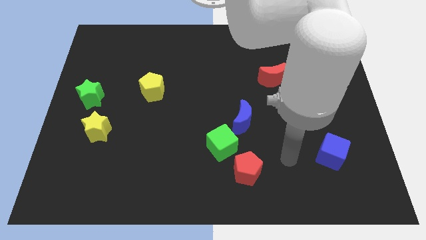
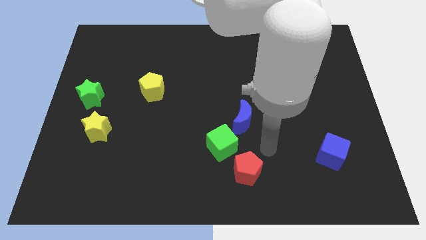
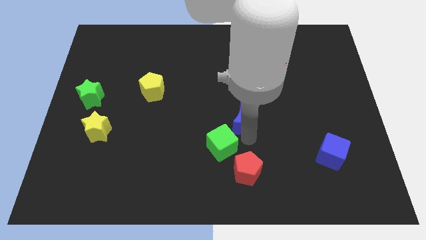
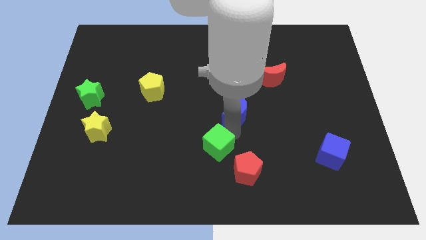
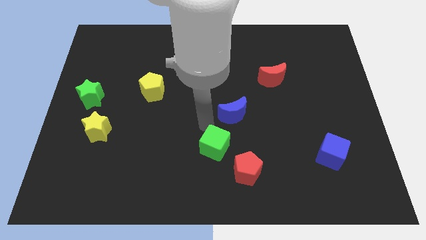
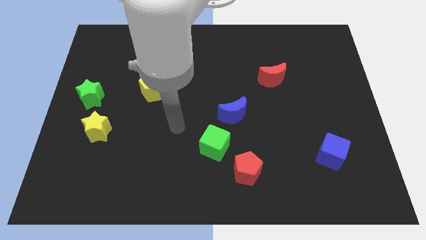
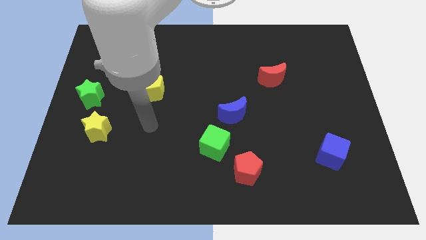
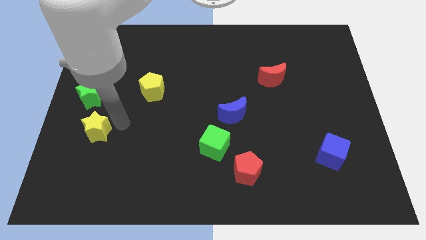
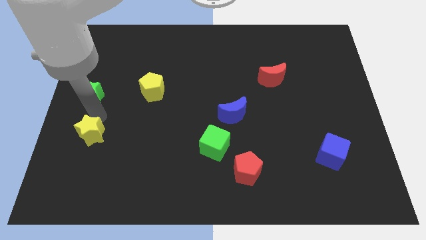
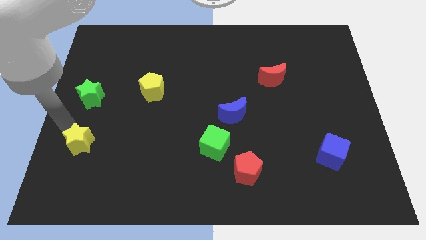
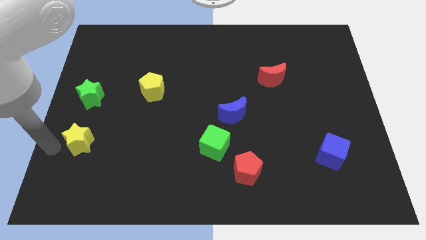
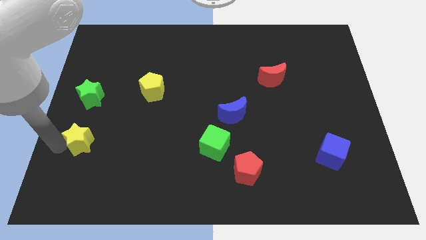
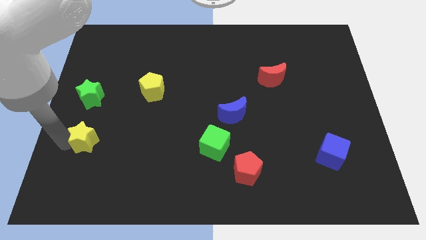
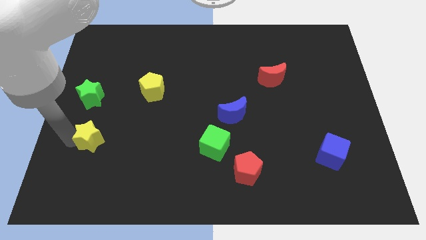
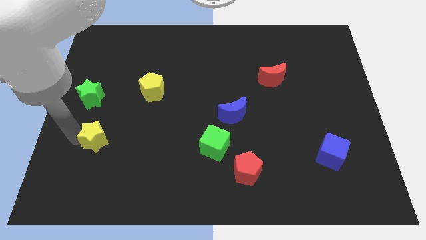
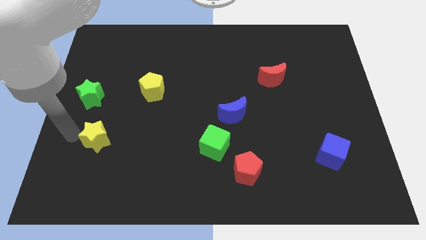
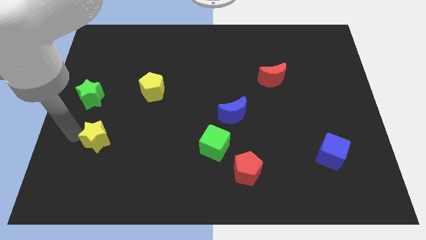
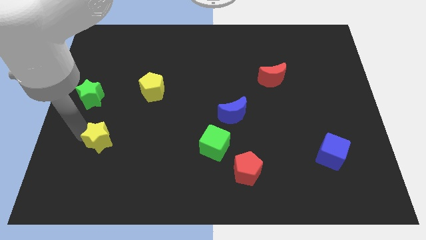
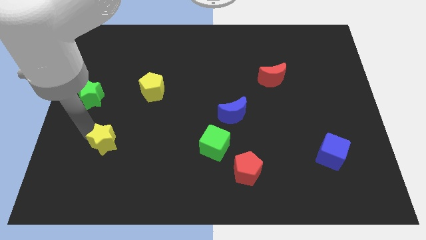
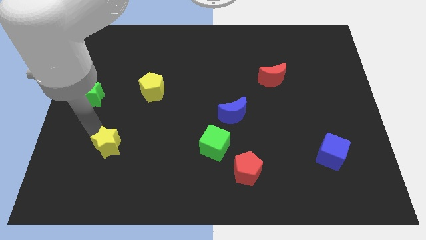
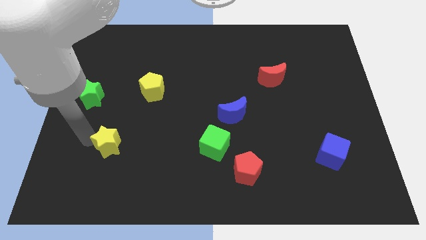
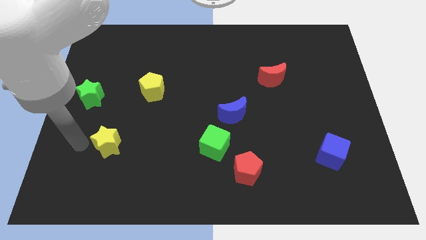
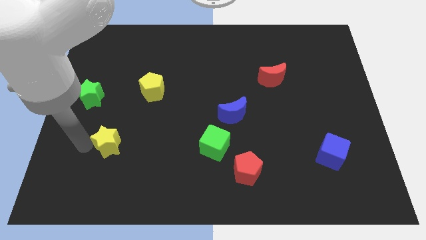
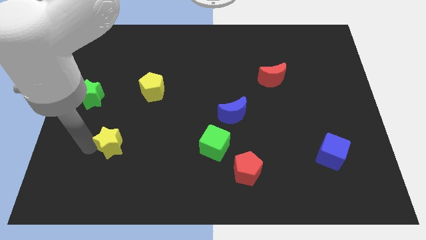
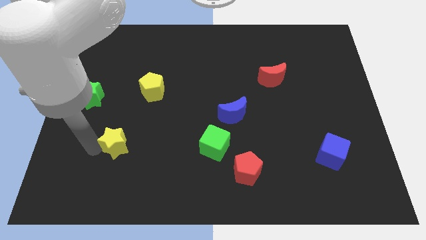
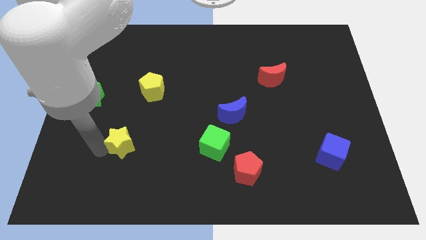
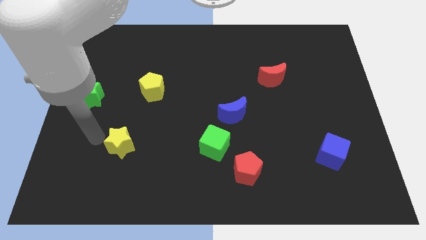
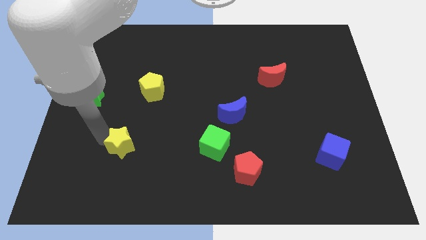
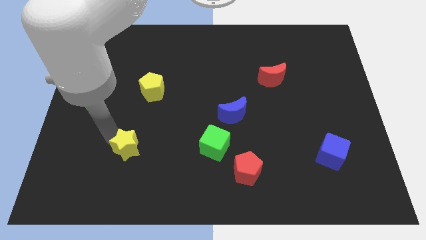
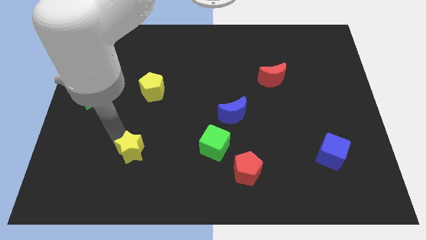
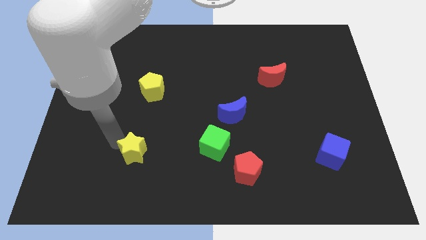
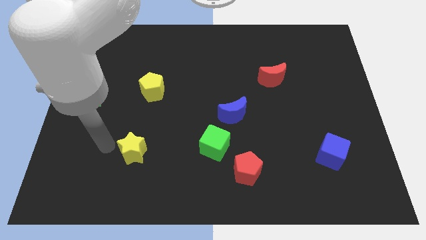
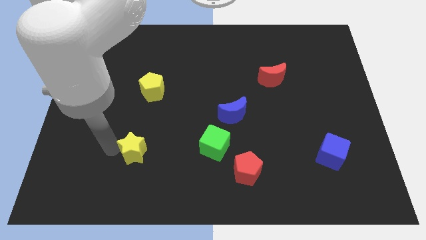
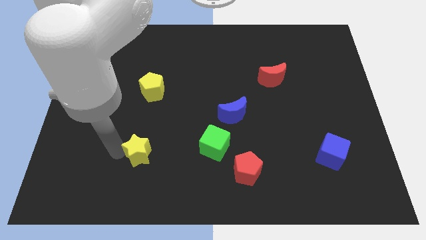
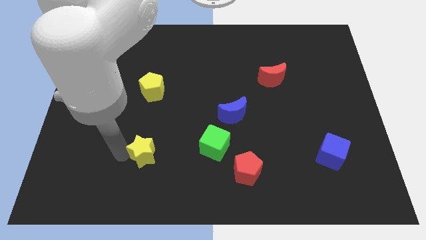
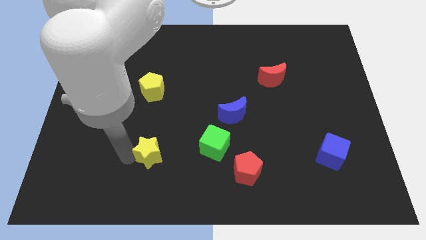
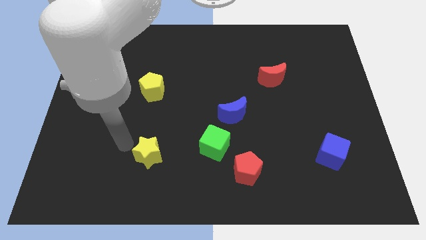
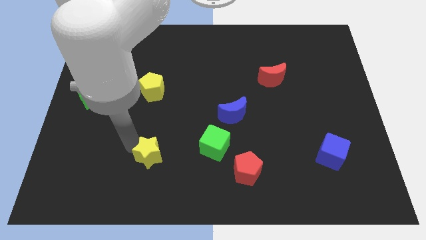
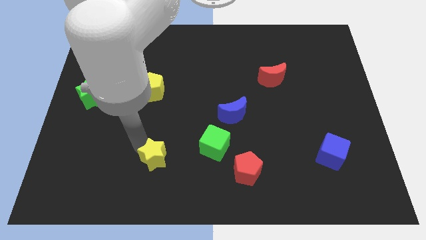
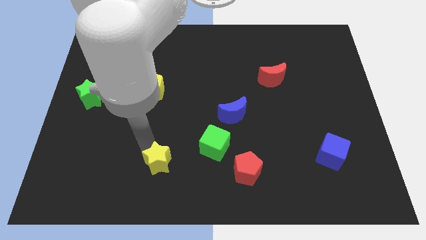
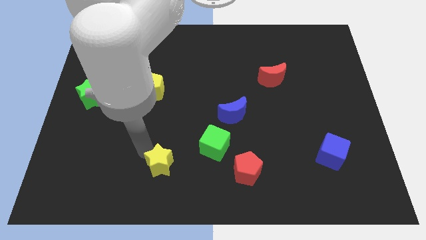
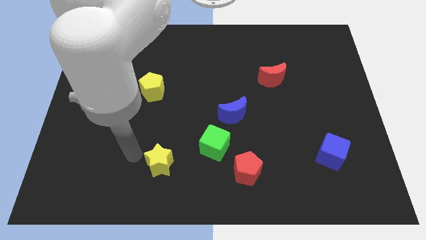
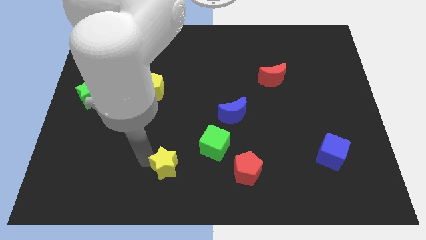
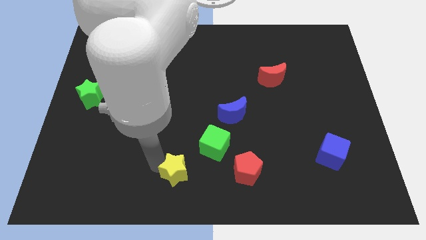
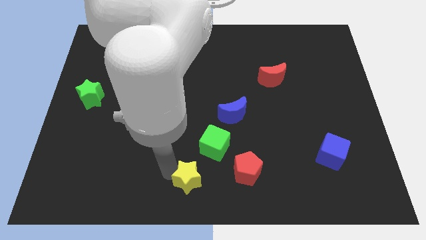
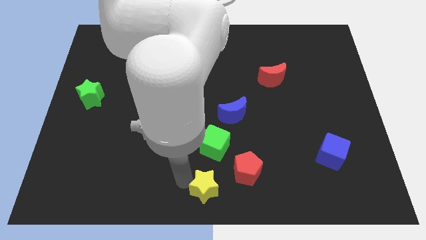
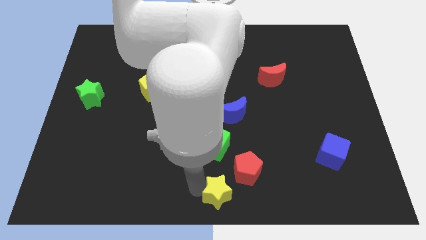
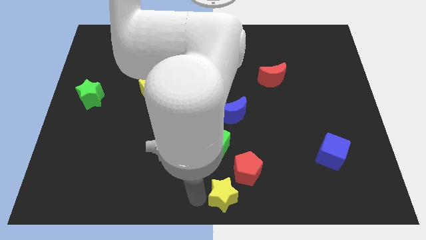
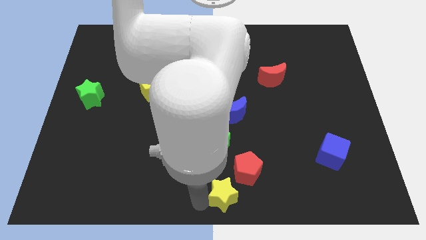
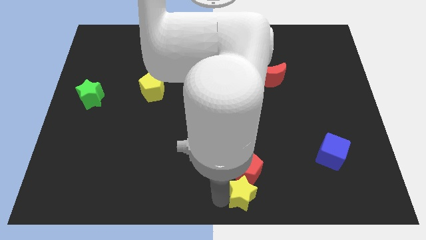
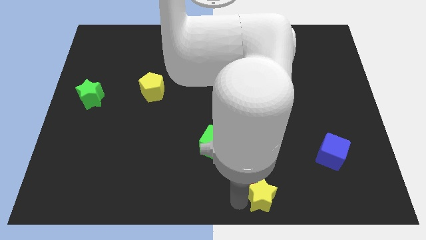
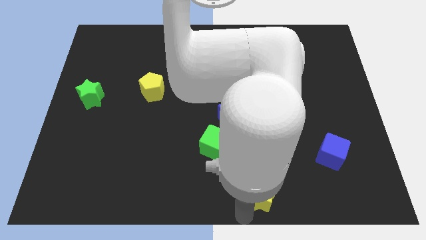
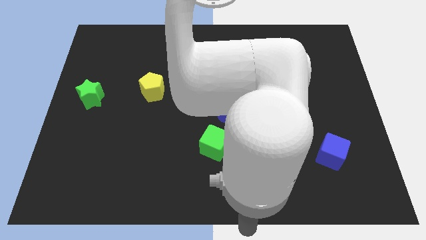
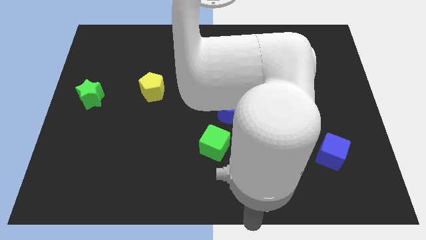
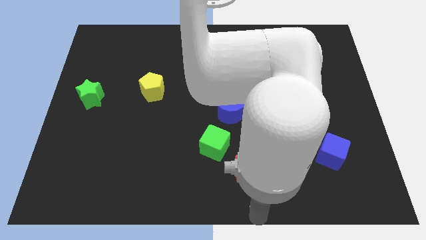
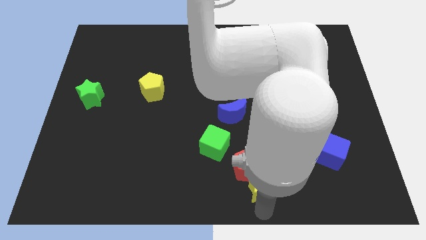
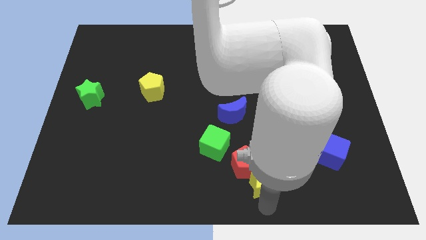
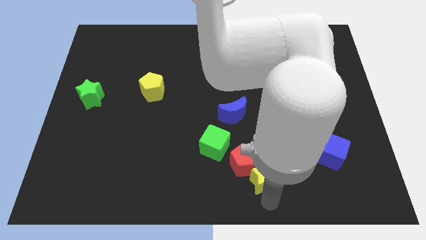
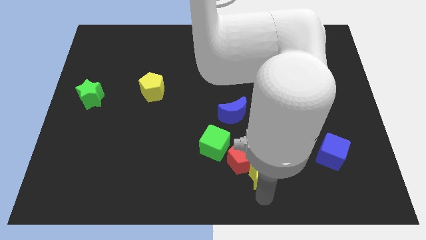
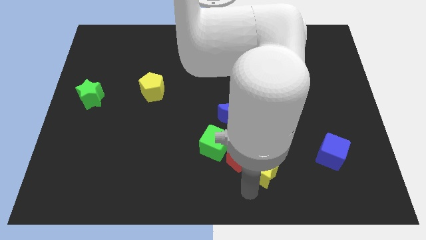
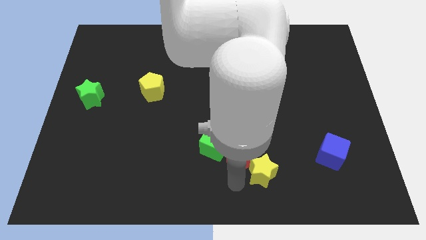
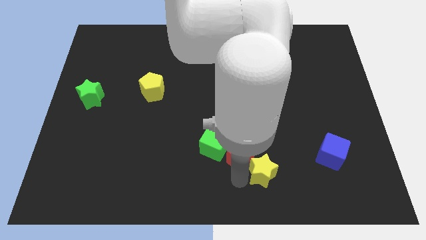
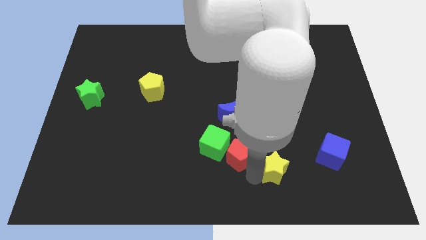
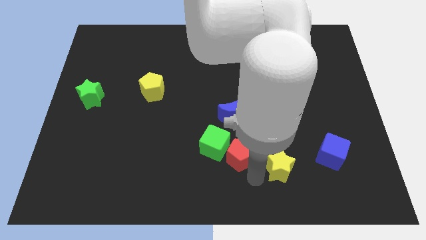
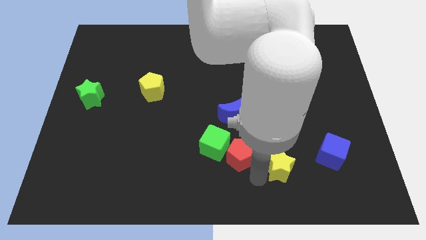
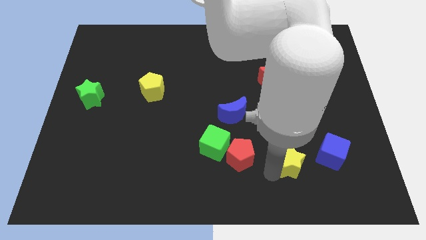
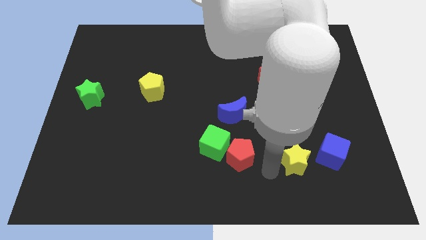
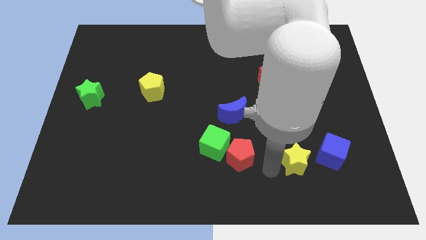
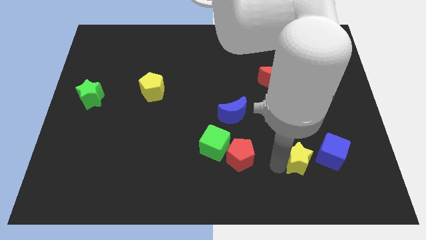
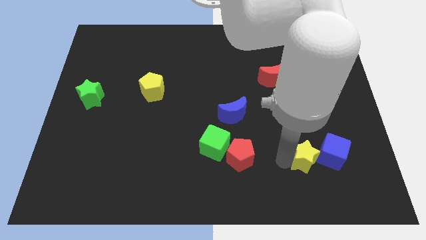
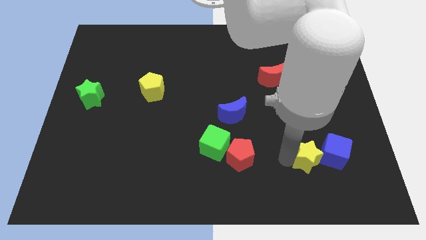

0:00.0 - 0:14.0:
push the yellow star close to the blue cube
